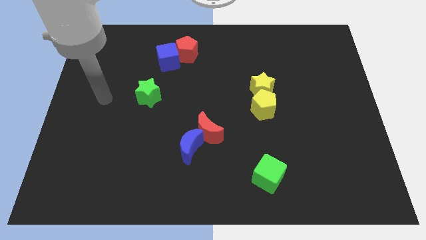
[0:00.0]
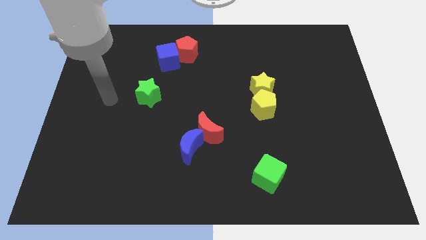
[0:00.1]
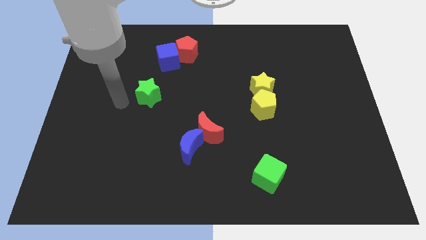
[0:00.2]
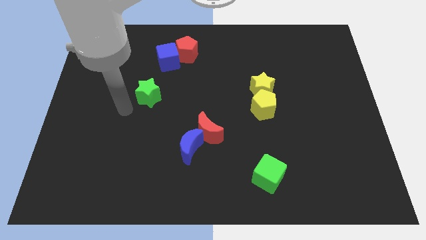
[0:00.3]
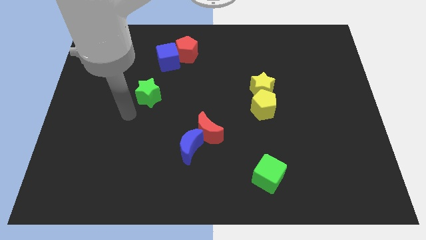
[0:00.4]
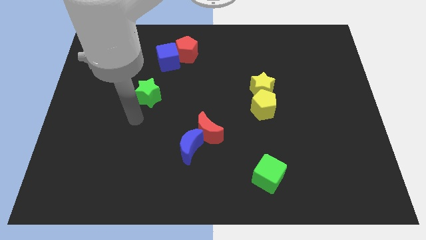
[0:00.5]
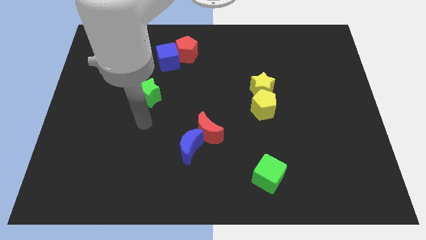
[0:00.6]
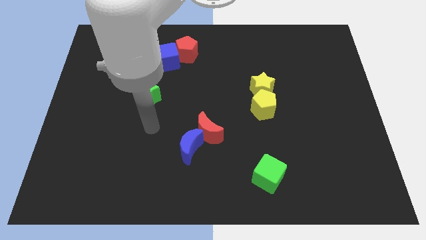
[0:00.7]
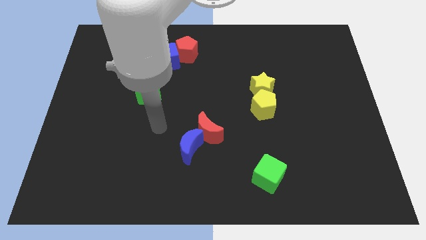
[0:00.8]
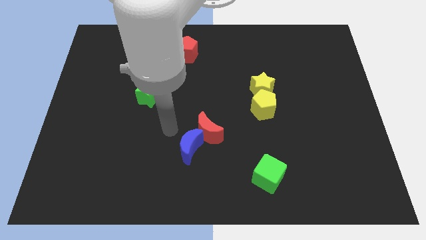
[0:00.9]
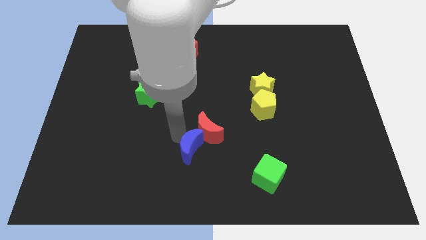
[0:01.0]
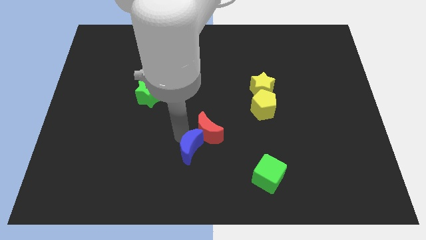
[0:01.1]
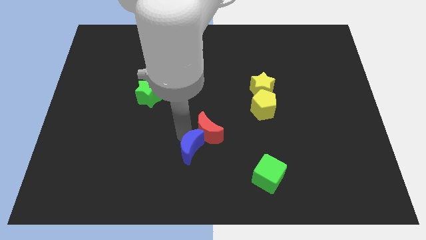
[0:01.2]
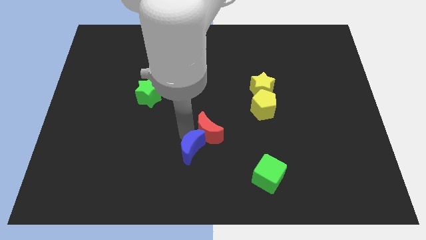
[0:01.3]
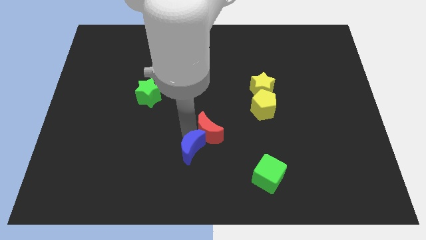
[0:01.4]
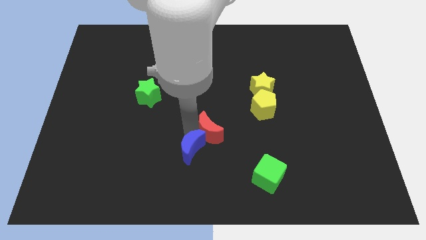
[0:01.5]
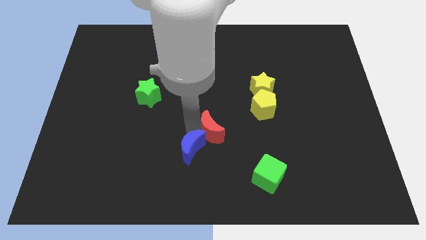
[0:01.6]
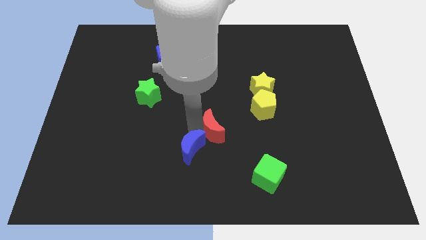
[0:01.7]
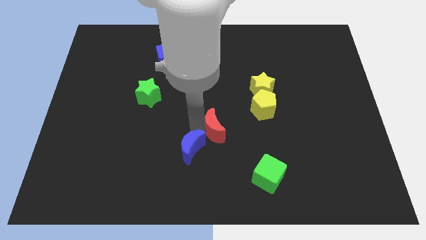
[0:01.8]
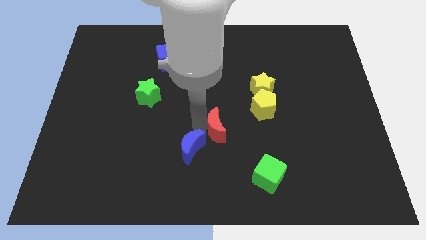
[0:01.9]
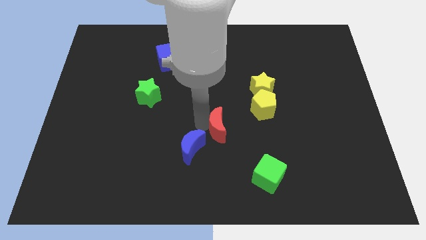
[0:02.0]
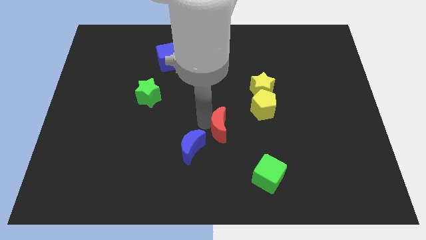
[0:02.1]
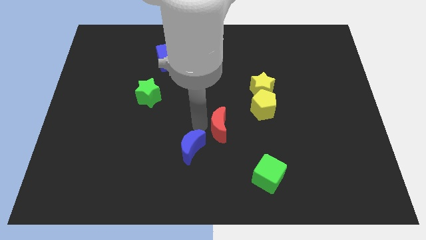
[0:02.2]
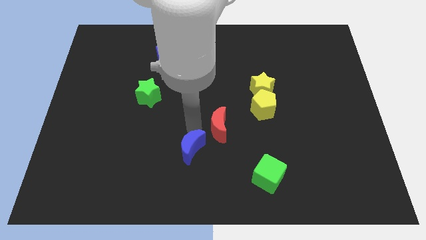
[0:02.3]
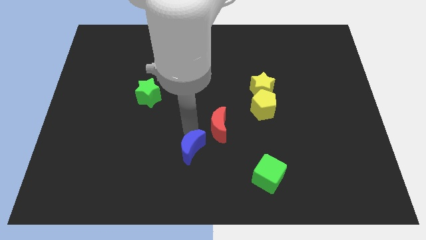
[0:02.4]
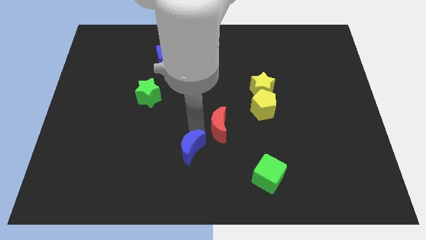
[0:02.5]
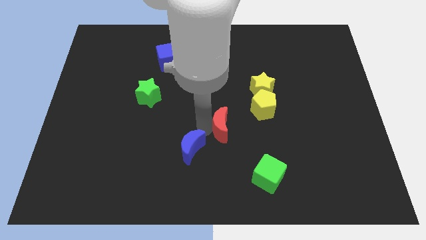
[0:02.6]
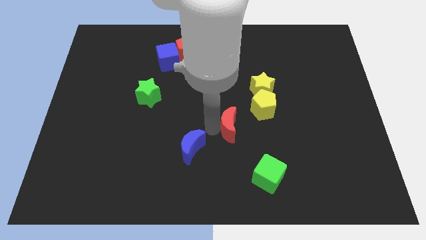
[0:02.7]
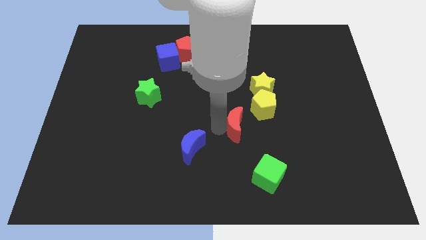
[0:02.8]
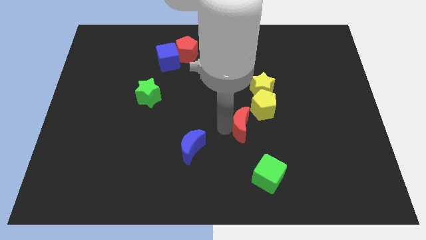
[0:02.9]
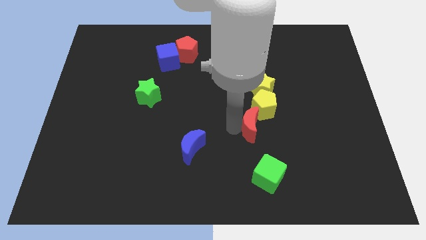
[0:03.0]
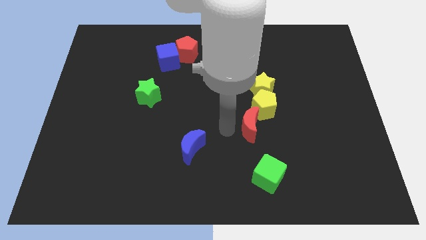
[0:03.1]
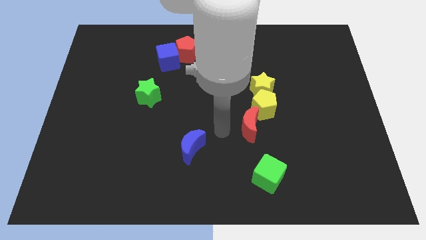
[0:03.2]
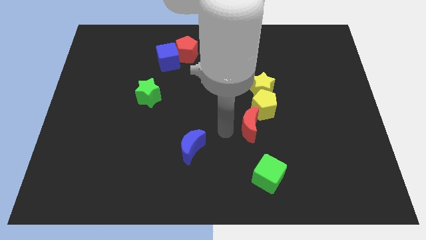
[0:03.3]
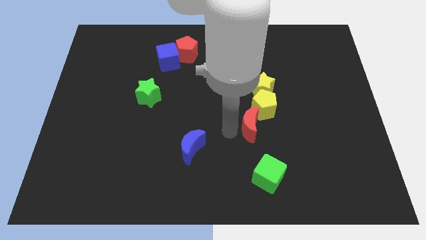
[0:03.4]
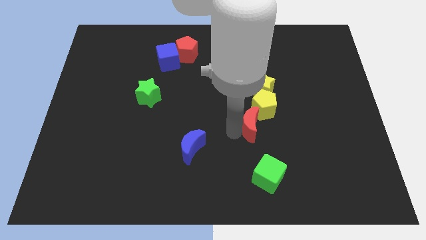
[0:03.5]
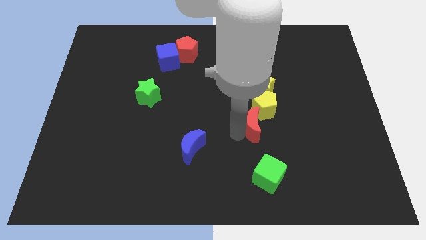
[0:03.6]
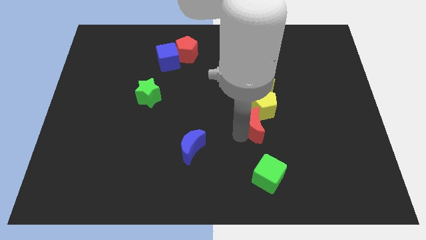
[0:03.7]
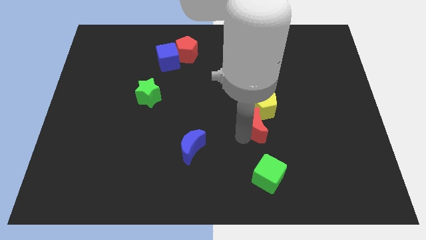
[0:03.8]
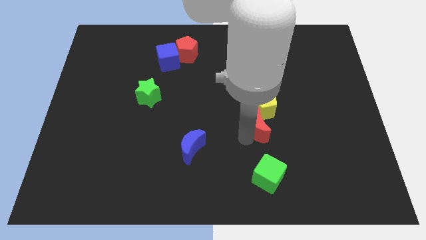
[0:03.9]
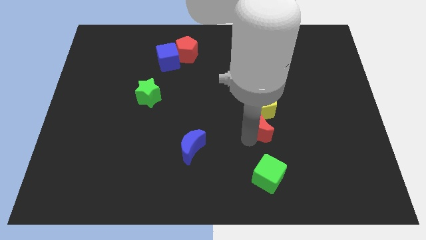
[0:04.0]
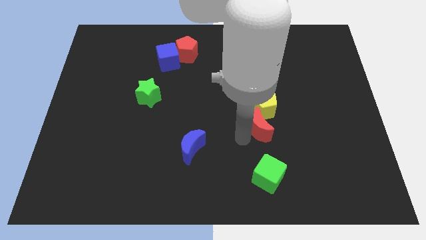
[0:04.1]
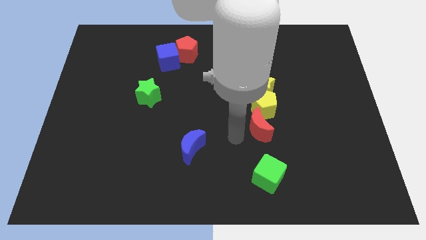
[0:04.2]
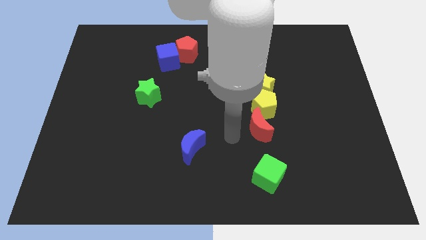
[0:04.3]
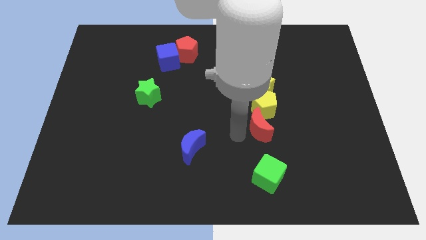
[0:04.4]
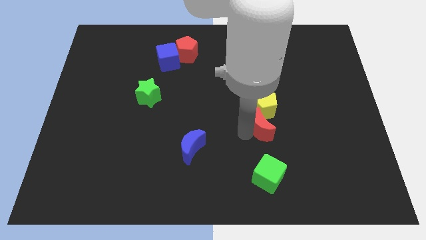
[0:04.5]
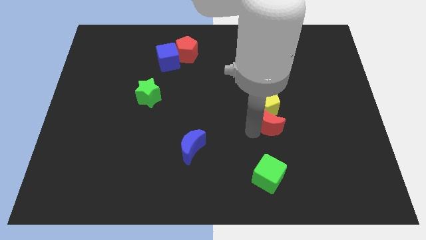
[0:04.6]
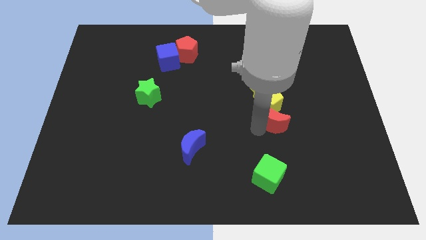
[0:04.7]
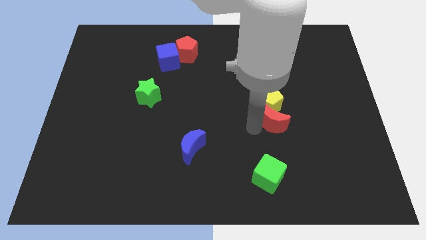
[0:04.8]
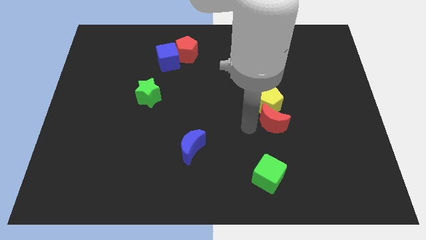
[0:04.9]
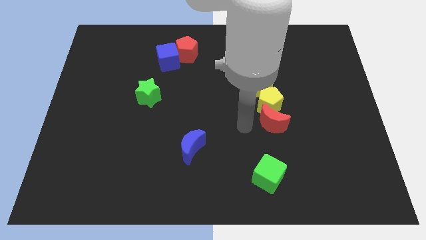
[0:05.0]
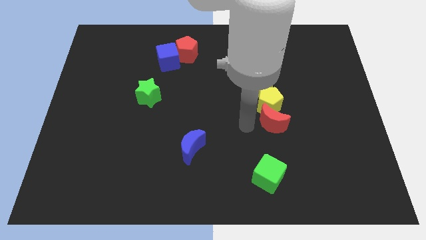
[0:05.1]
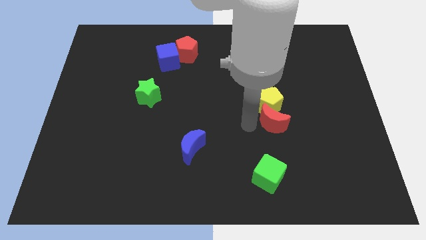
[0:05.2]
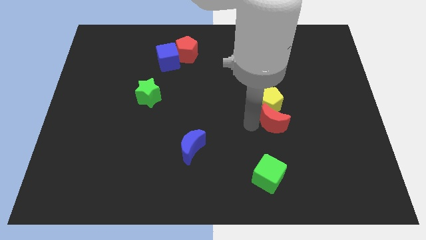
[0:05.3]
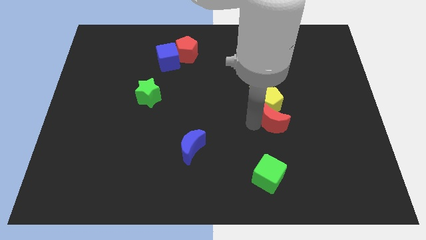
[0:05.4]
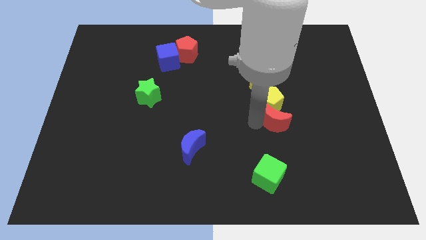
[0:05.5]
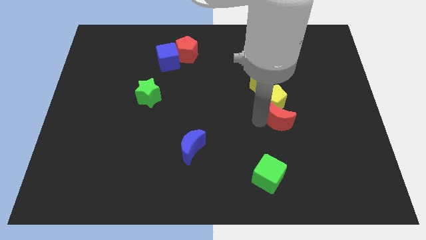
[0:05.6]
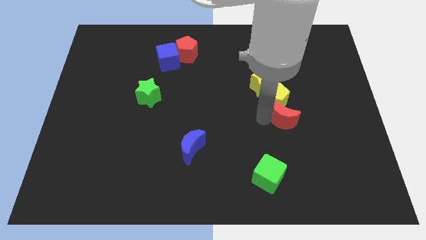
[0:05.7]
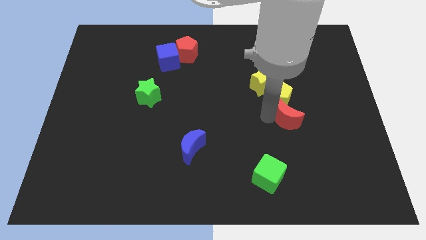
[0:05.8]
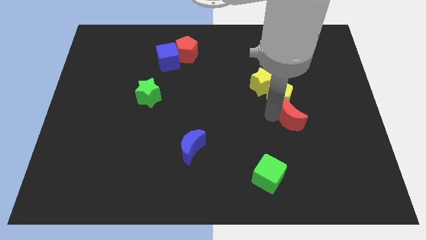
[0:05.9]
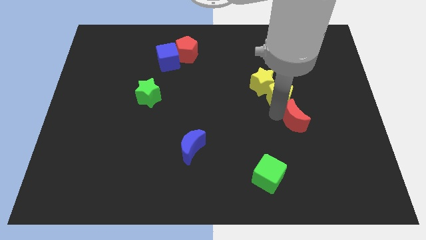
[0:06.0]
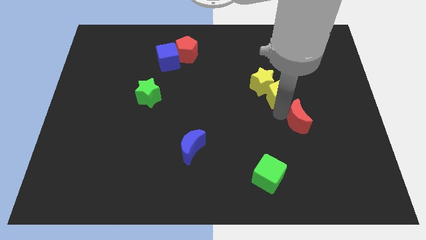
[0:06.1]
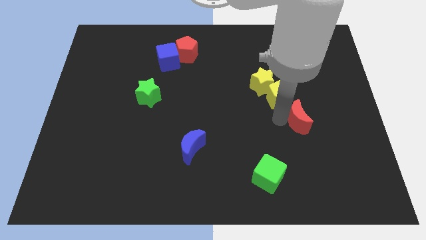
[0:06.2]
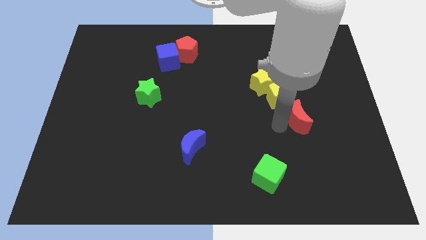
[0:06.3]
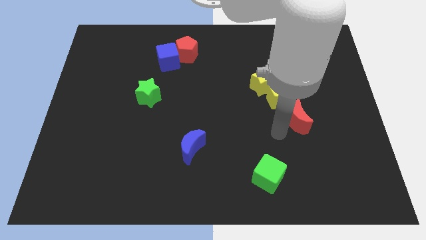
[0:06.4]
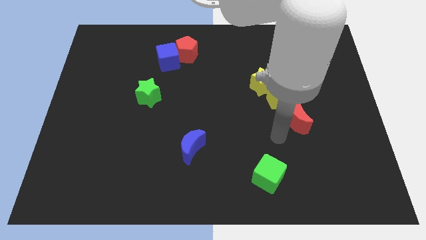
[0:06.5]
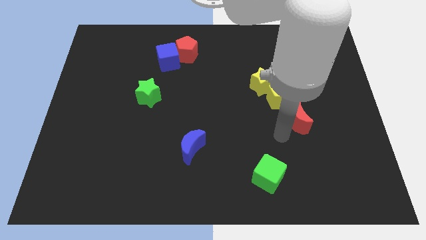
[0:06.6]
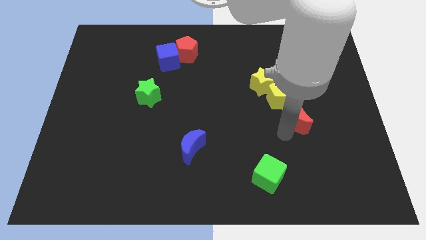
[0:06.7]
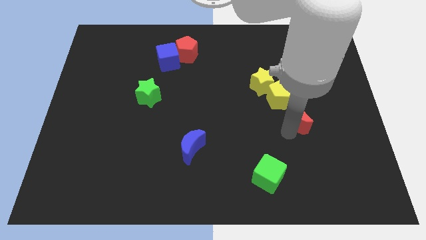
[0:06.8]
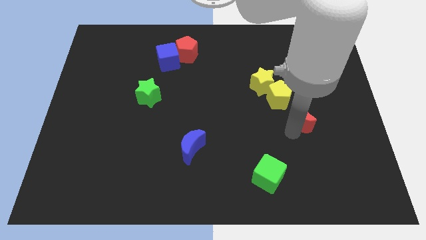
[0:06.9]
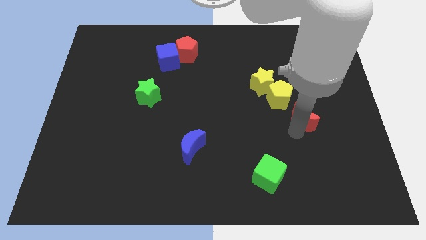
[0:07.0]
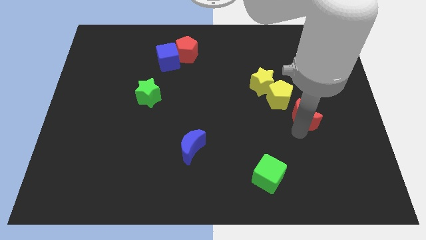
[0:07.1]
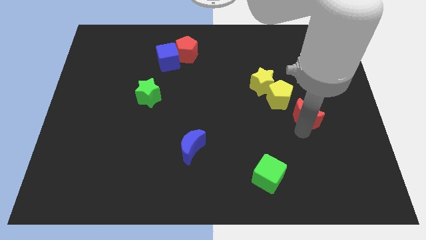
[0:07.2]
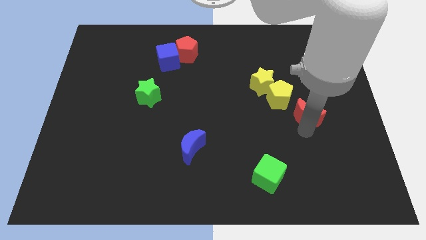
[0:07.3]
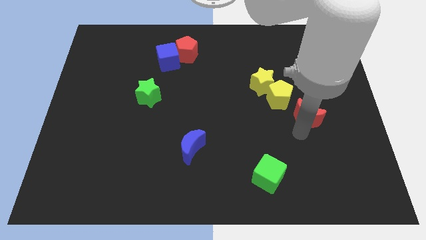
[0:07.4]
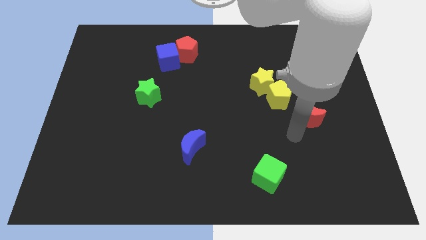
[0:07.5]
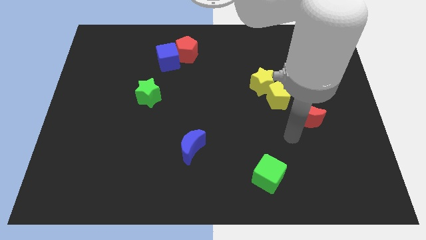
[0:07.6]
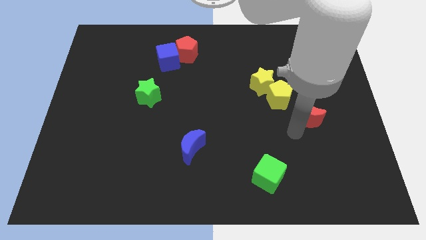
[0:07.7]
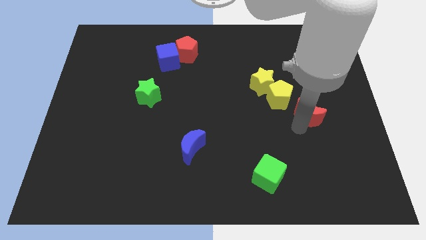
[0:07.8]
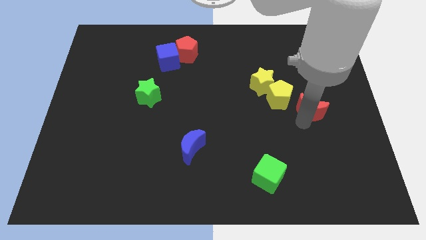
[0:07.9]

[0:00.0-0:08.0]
put the red moon just right of the yellow pentagon
